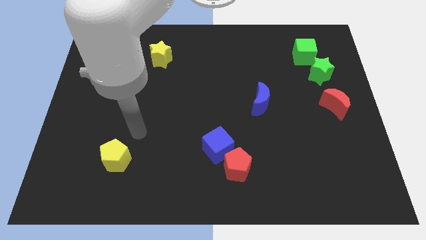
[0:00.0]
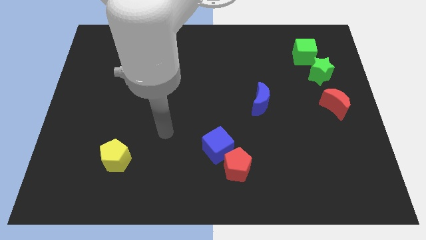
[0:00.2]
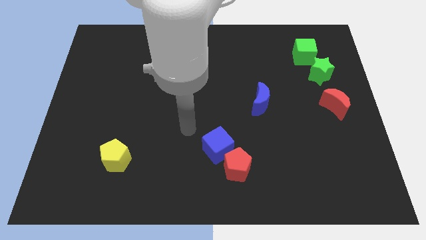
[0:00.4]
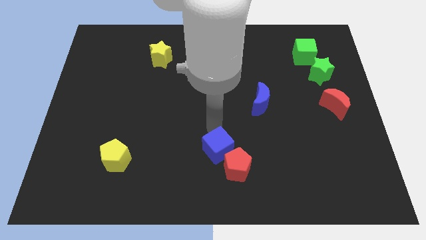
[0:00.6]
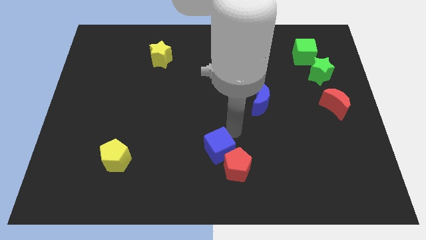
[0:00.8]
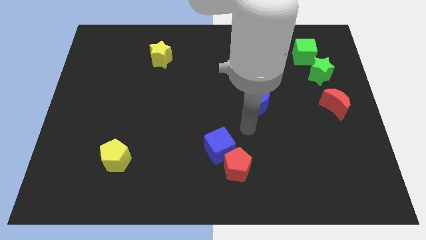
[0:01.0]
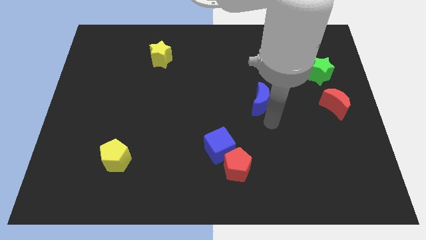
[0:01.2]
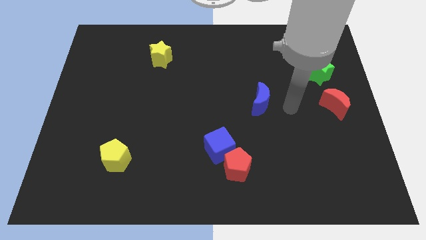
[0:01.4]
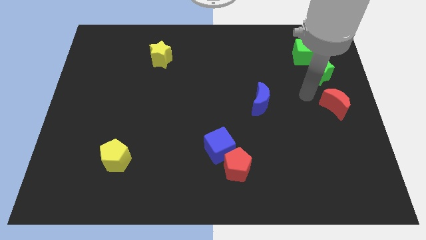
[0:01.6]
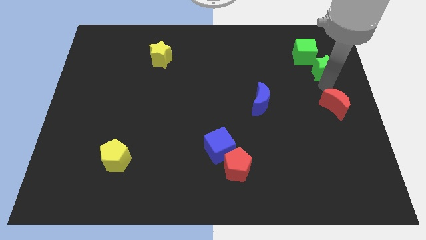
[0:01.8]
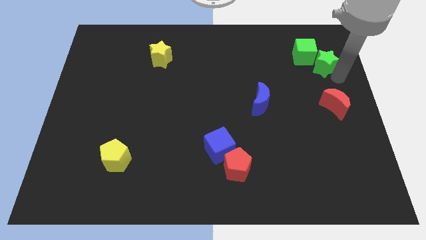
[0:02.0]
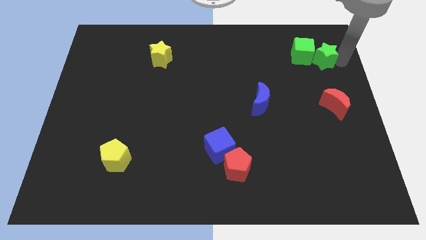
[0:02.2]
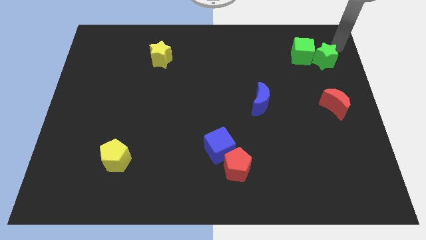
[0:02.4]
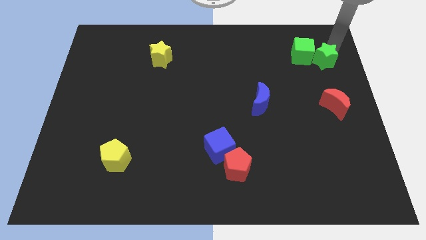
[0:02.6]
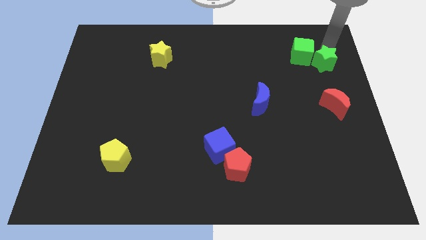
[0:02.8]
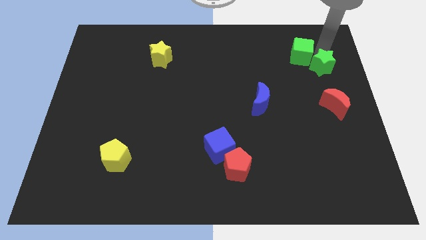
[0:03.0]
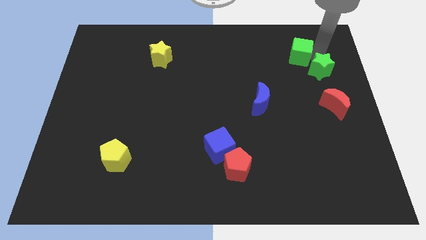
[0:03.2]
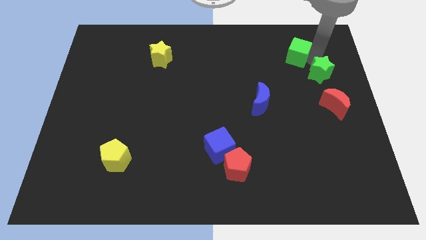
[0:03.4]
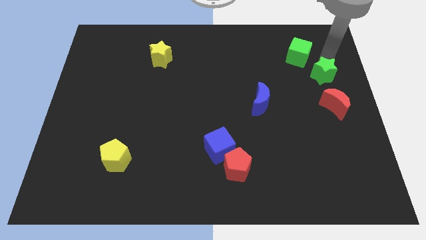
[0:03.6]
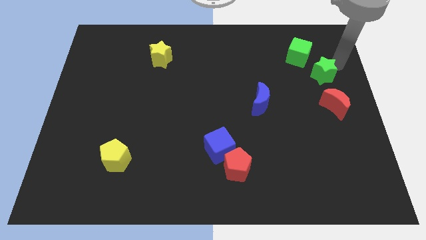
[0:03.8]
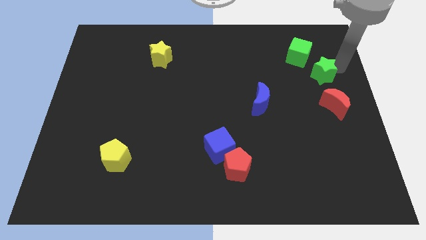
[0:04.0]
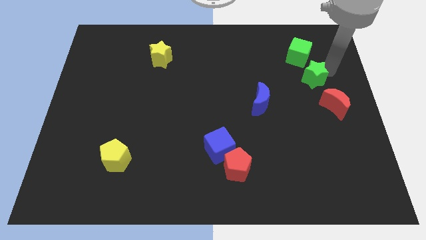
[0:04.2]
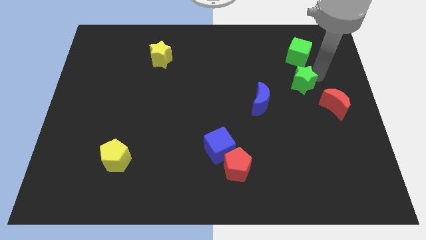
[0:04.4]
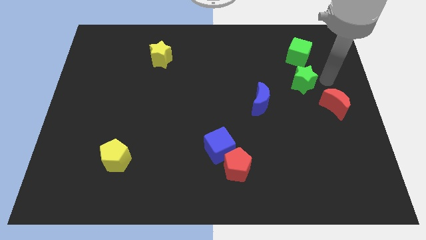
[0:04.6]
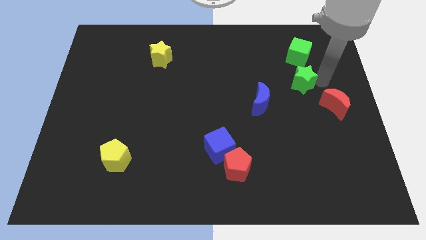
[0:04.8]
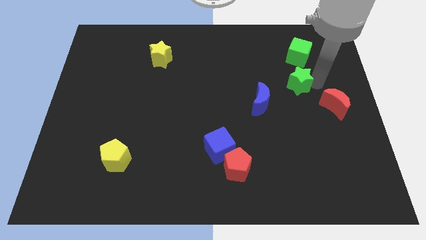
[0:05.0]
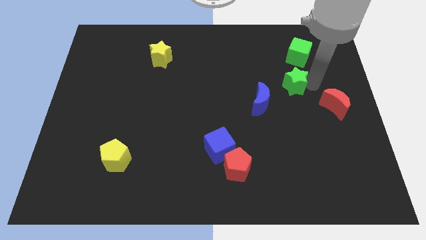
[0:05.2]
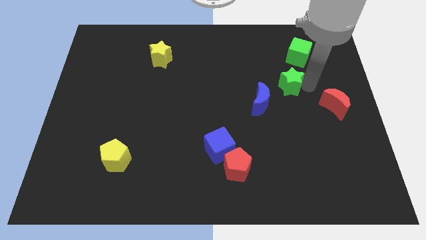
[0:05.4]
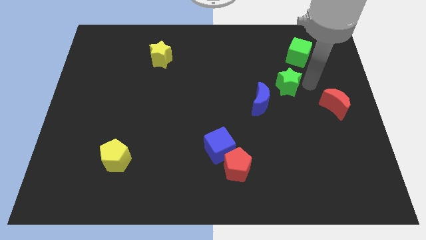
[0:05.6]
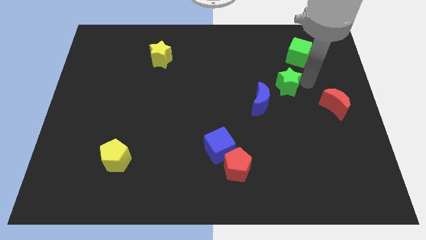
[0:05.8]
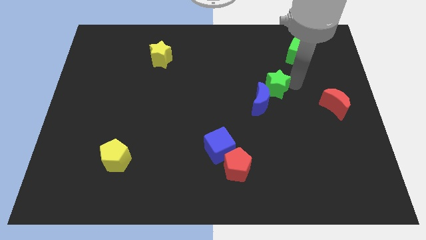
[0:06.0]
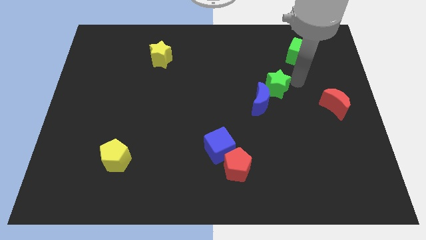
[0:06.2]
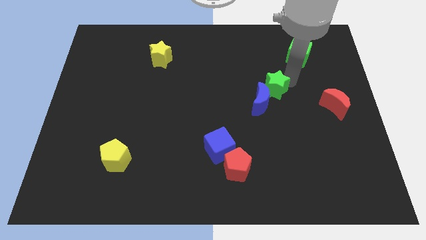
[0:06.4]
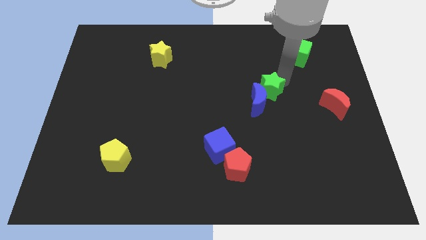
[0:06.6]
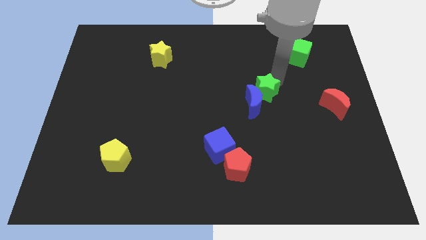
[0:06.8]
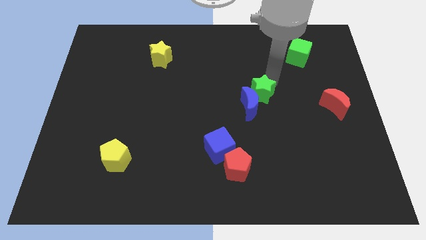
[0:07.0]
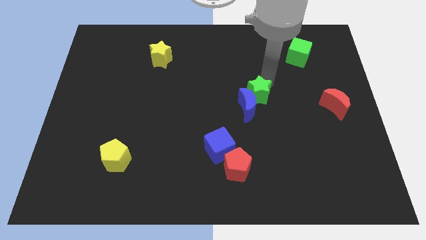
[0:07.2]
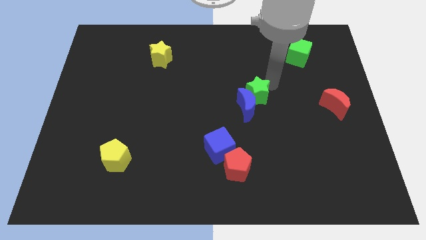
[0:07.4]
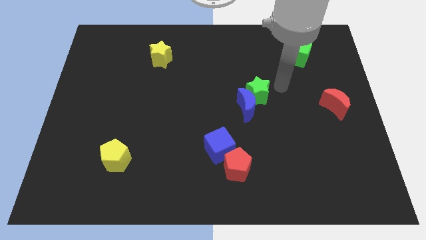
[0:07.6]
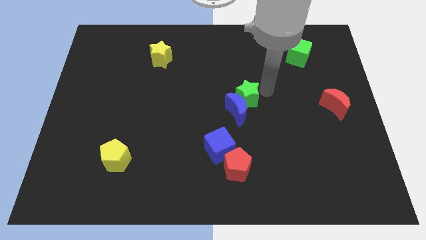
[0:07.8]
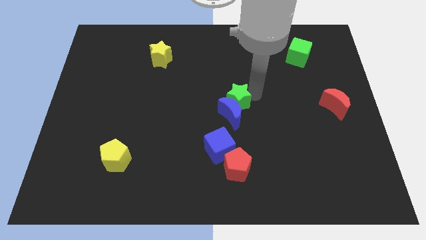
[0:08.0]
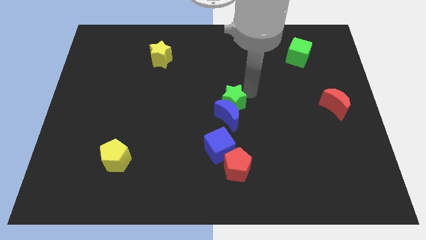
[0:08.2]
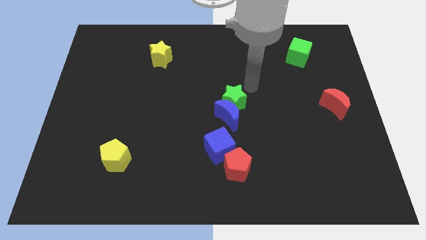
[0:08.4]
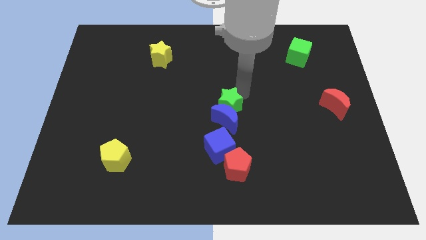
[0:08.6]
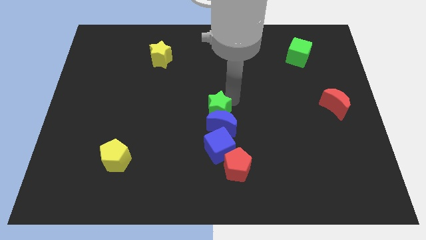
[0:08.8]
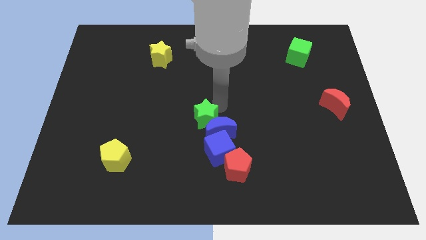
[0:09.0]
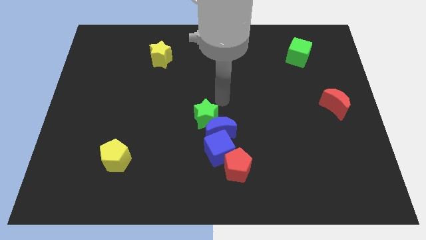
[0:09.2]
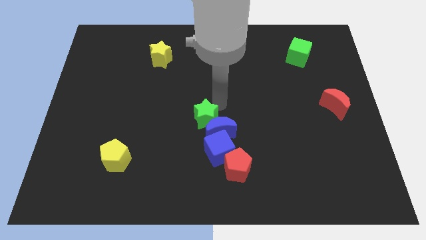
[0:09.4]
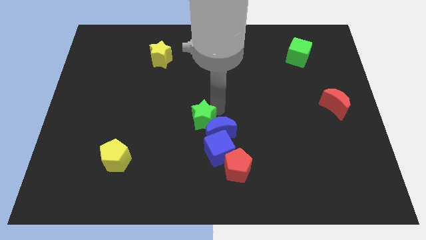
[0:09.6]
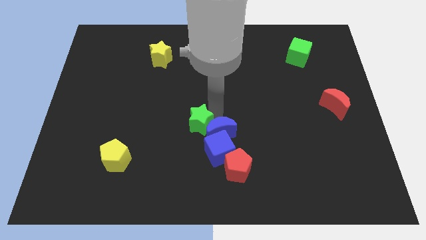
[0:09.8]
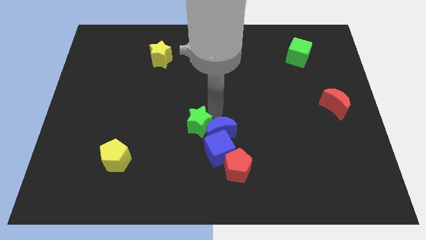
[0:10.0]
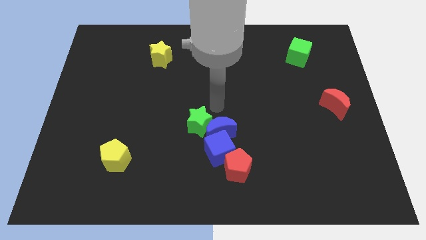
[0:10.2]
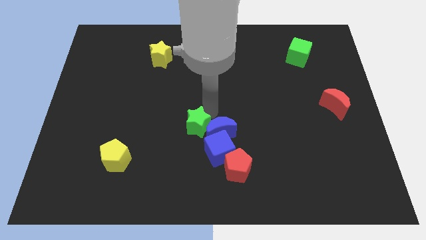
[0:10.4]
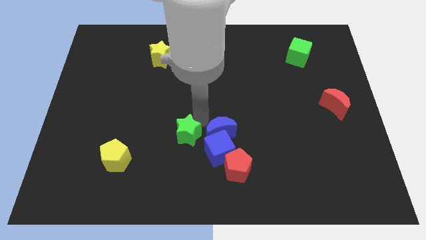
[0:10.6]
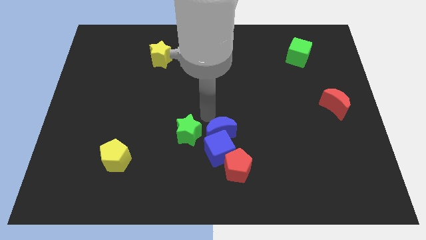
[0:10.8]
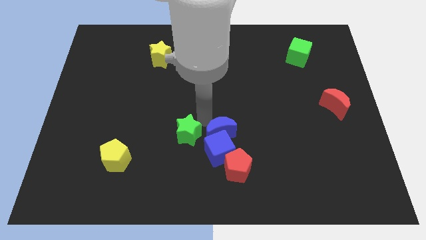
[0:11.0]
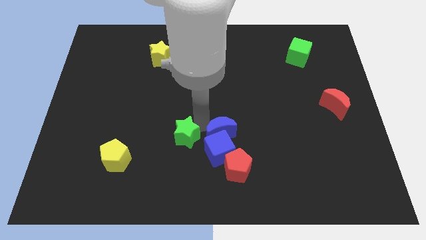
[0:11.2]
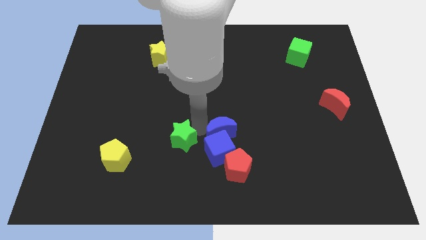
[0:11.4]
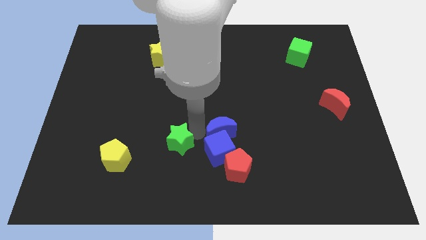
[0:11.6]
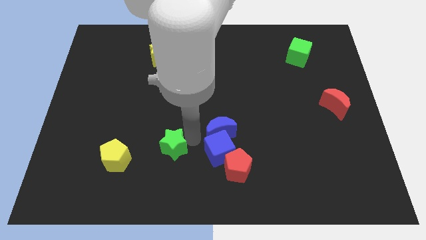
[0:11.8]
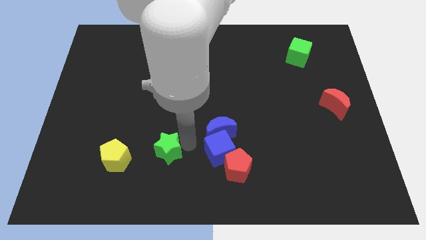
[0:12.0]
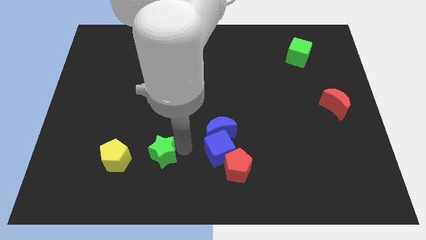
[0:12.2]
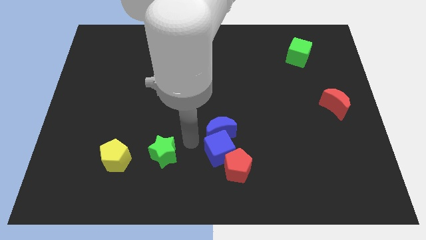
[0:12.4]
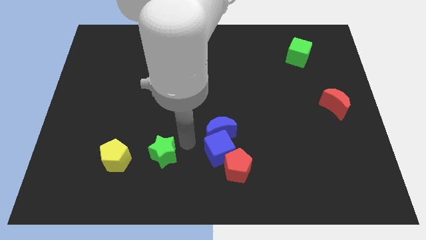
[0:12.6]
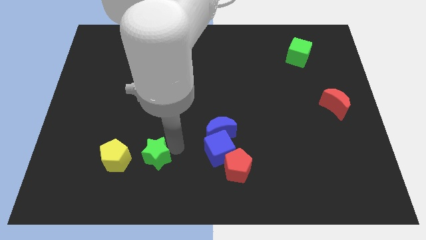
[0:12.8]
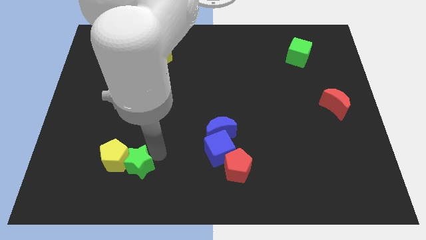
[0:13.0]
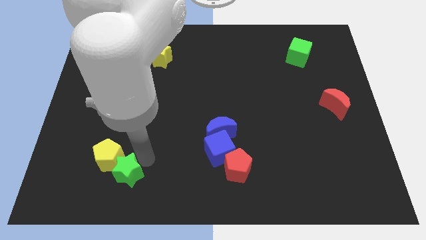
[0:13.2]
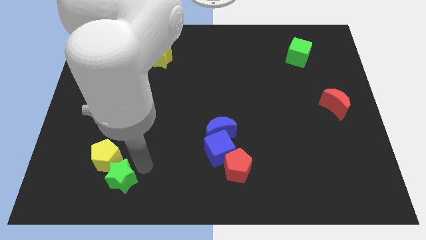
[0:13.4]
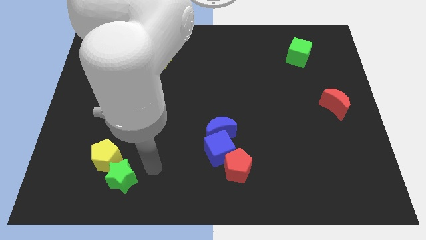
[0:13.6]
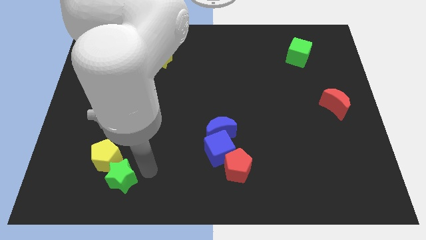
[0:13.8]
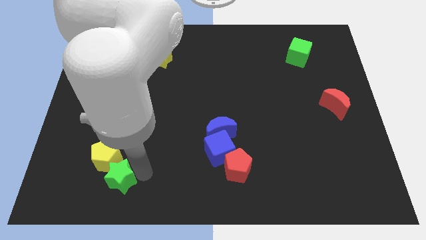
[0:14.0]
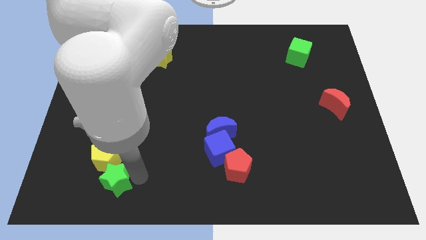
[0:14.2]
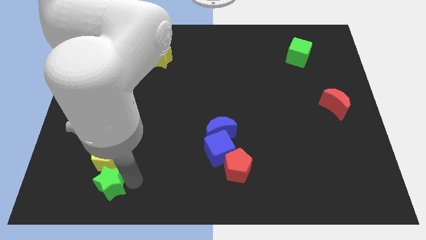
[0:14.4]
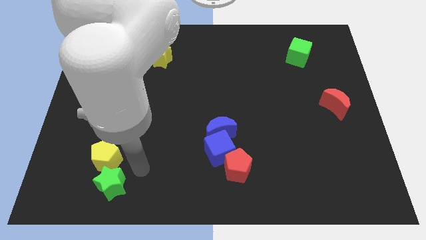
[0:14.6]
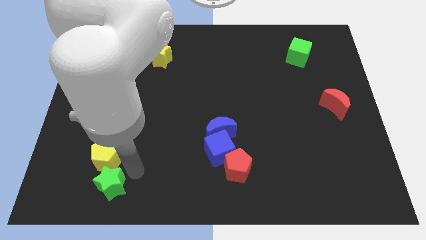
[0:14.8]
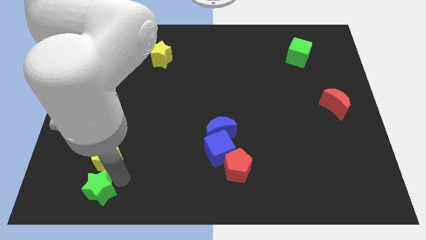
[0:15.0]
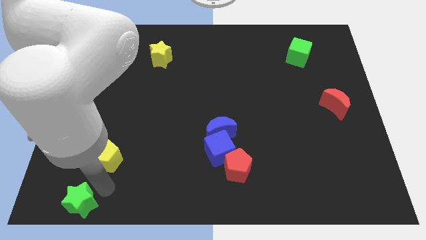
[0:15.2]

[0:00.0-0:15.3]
move the green star to the bottom left corner
